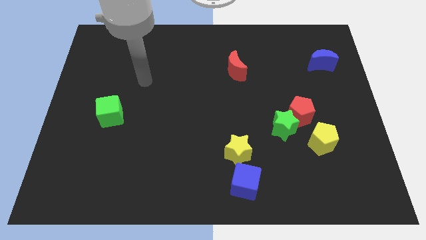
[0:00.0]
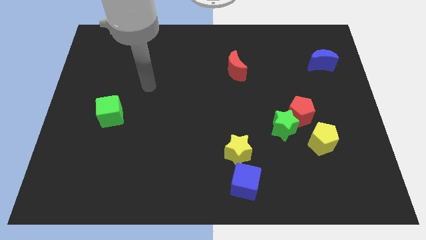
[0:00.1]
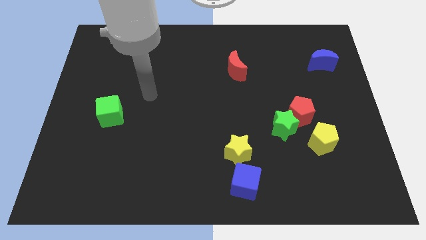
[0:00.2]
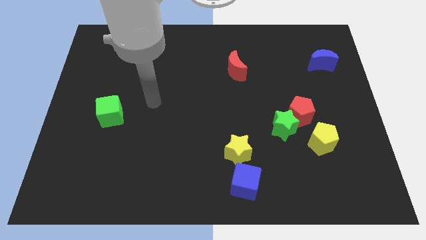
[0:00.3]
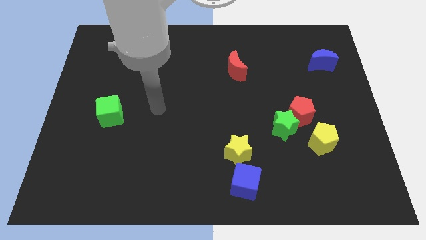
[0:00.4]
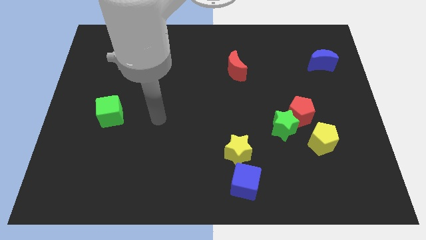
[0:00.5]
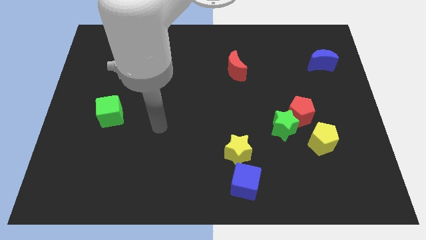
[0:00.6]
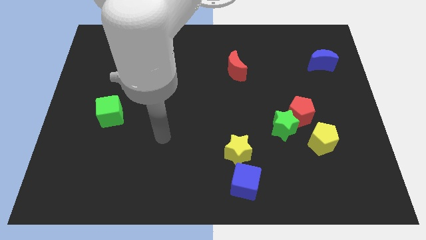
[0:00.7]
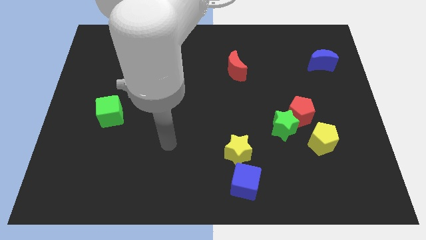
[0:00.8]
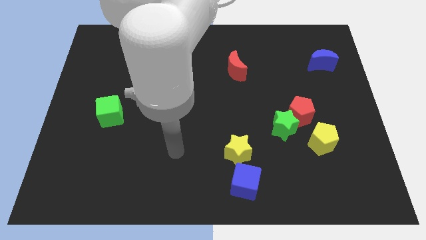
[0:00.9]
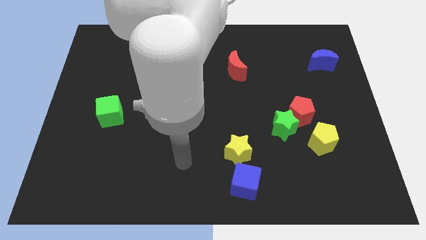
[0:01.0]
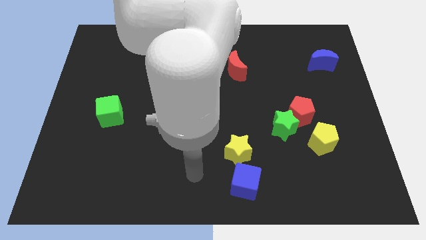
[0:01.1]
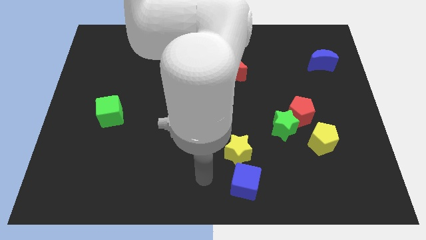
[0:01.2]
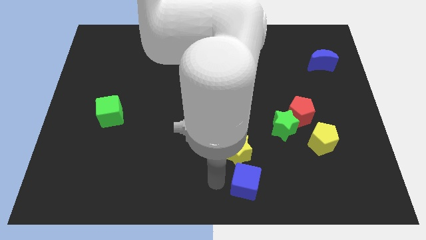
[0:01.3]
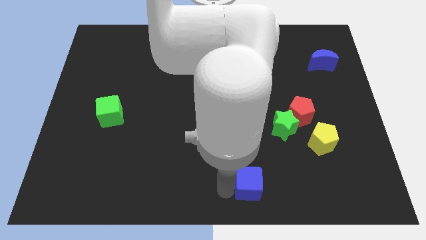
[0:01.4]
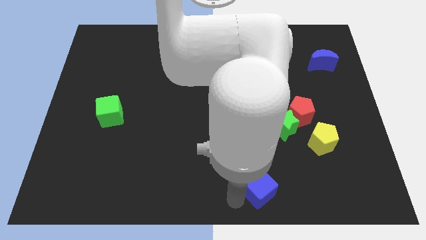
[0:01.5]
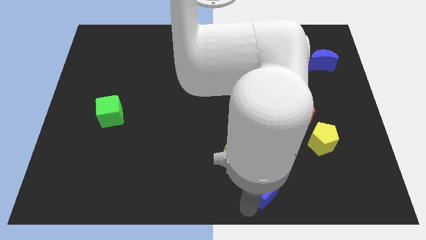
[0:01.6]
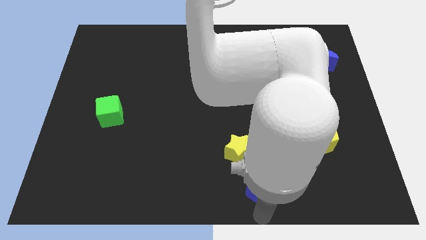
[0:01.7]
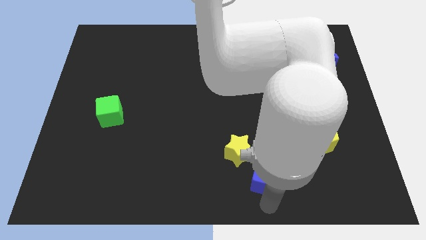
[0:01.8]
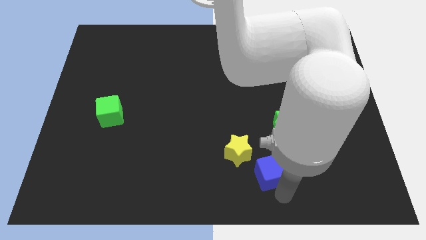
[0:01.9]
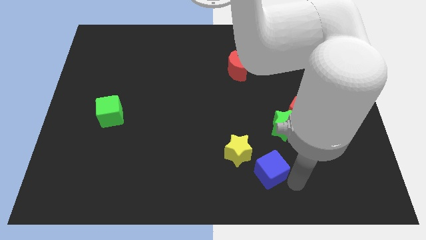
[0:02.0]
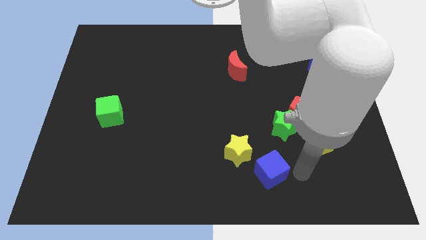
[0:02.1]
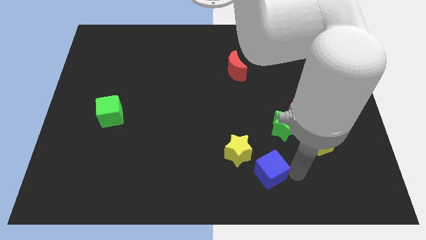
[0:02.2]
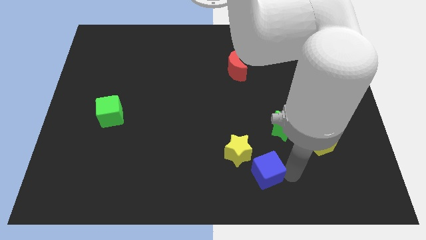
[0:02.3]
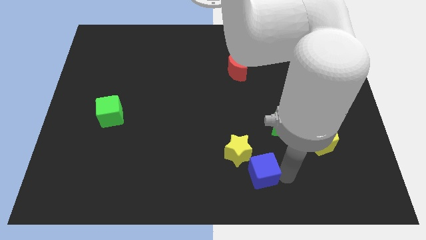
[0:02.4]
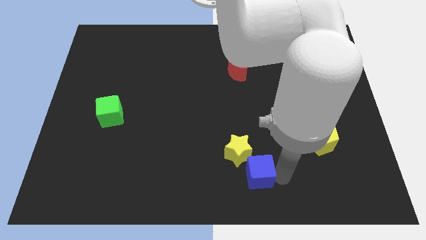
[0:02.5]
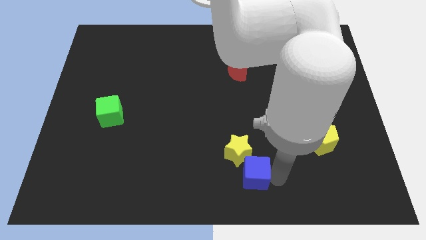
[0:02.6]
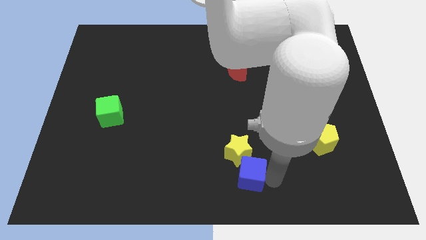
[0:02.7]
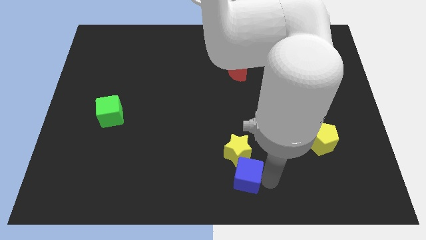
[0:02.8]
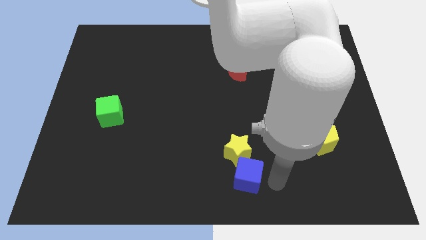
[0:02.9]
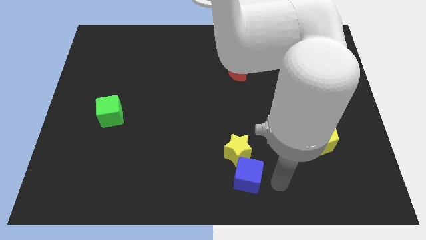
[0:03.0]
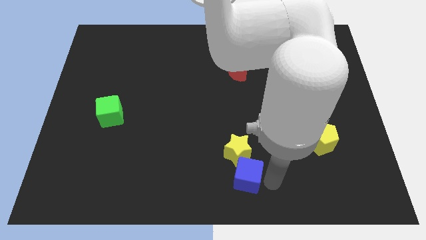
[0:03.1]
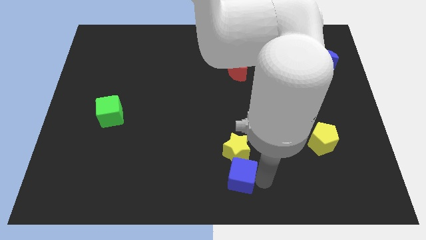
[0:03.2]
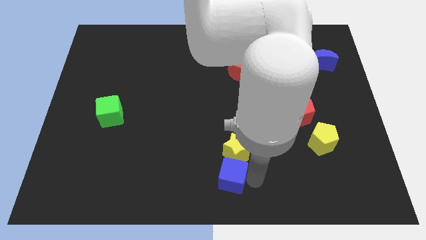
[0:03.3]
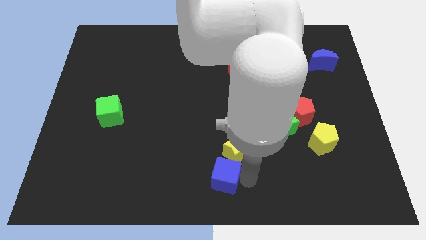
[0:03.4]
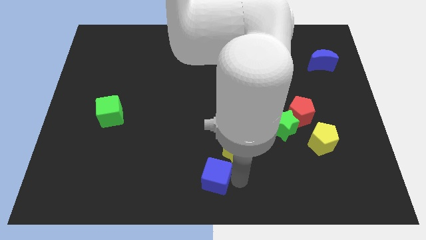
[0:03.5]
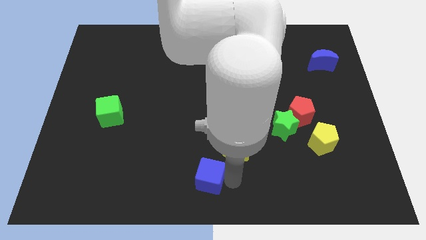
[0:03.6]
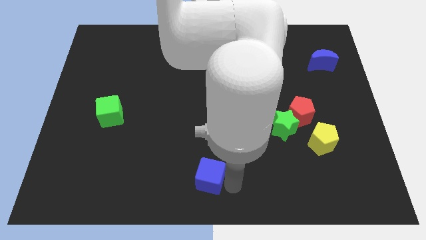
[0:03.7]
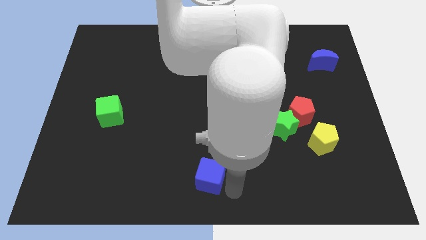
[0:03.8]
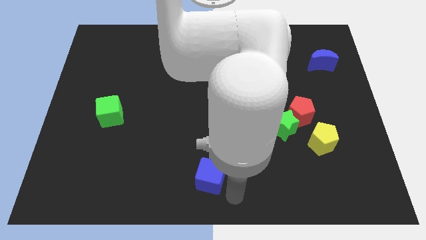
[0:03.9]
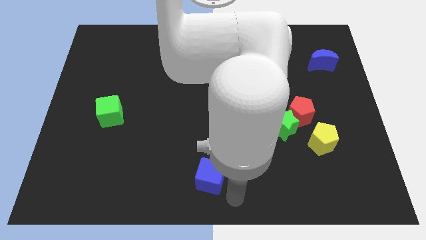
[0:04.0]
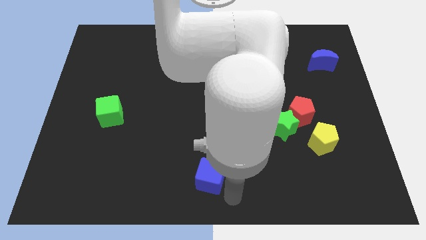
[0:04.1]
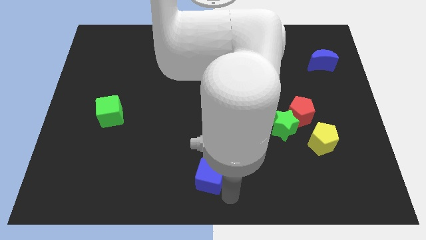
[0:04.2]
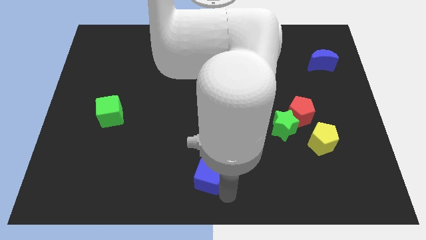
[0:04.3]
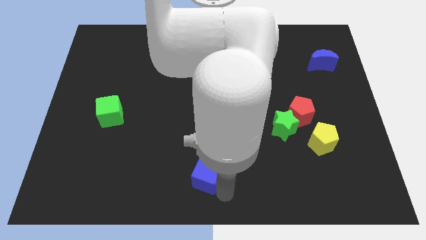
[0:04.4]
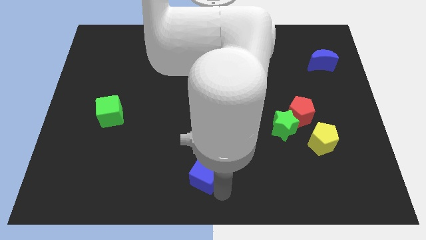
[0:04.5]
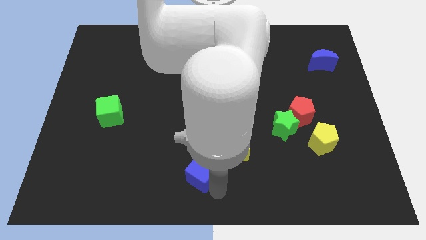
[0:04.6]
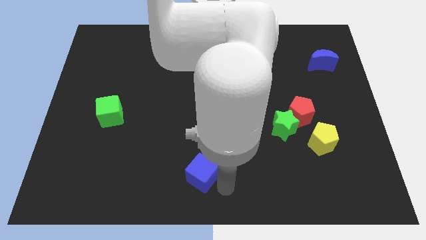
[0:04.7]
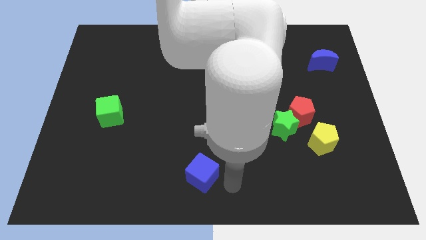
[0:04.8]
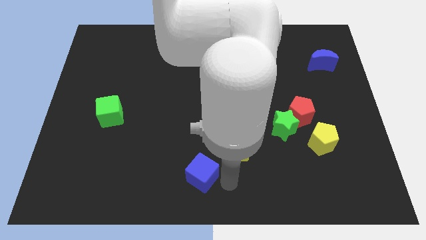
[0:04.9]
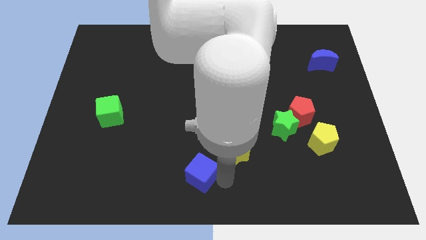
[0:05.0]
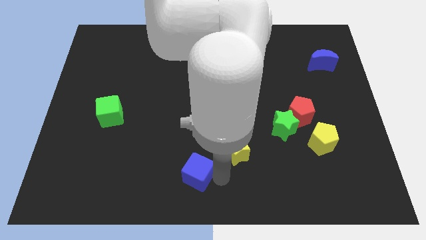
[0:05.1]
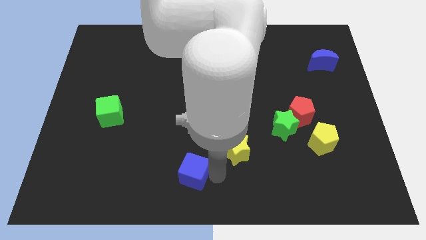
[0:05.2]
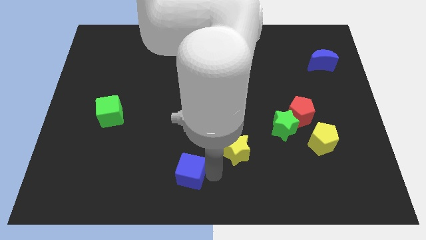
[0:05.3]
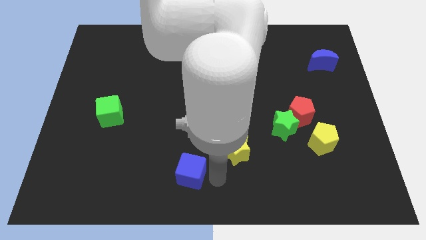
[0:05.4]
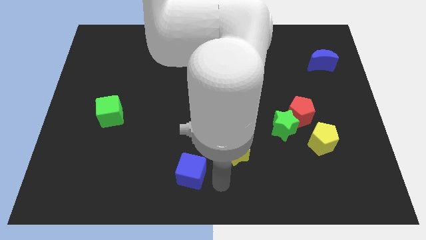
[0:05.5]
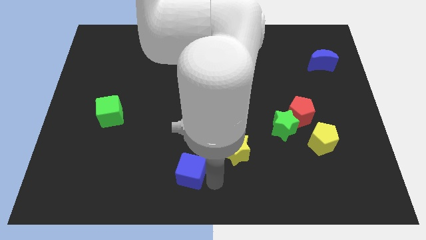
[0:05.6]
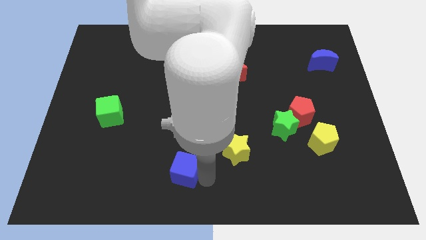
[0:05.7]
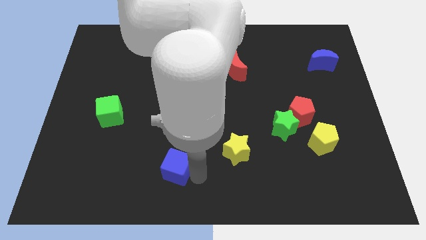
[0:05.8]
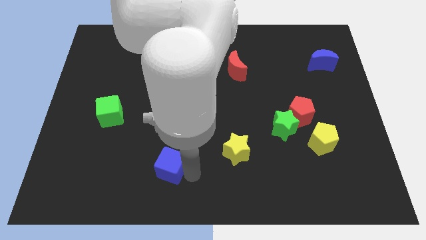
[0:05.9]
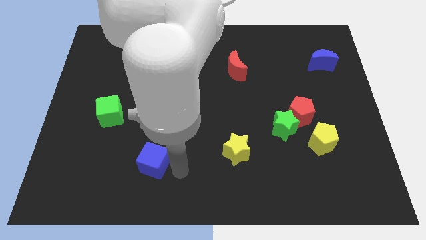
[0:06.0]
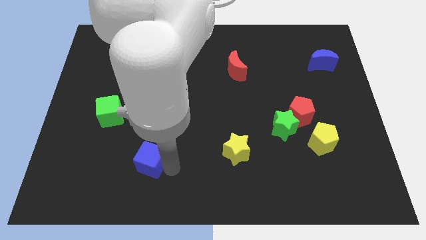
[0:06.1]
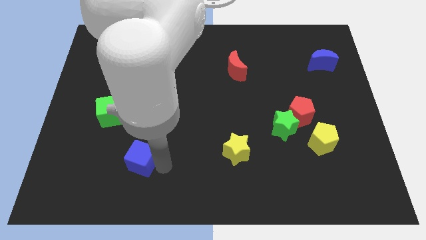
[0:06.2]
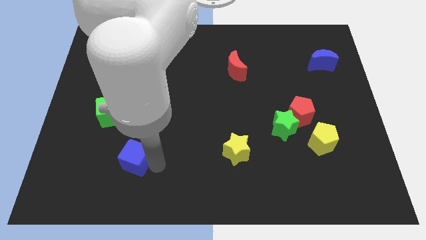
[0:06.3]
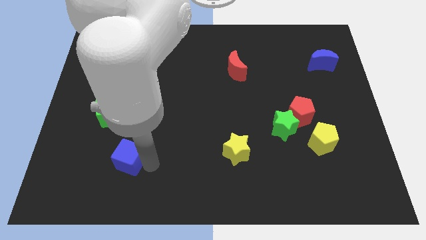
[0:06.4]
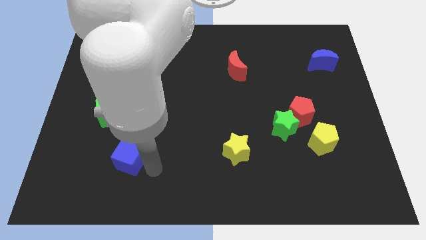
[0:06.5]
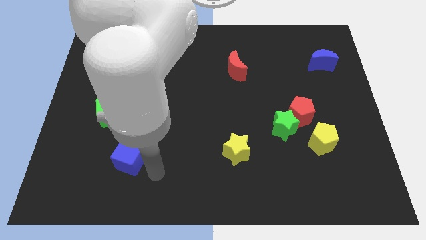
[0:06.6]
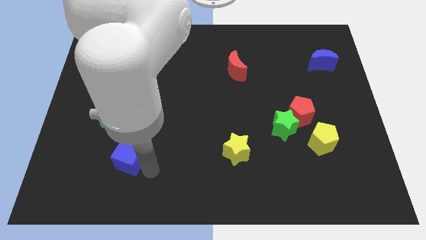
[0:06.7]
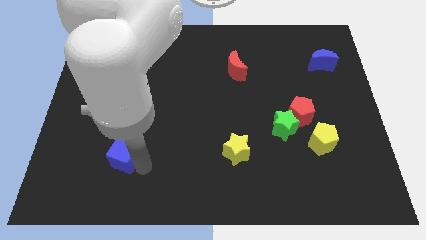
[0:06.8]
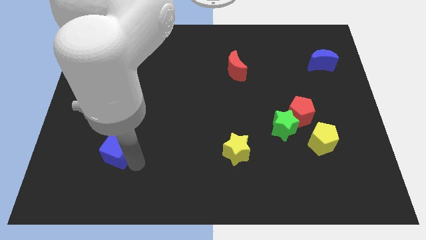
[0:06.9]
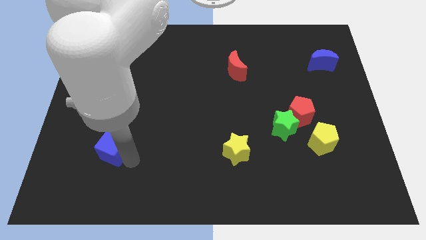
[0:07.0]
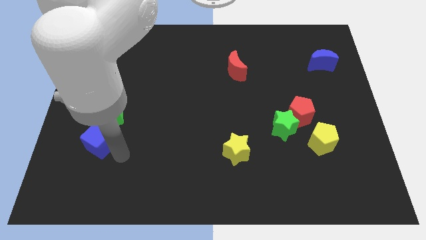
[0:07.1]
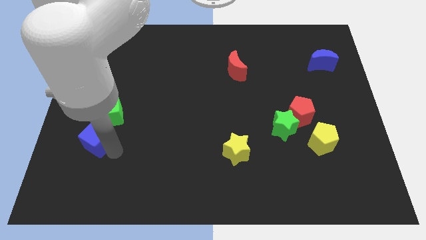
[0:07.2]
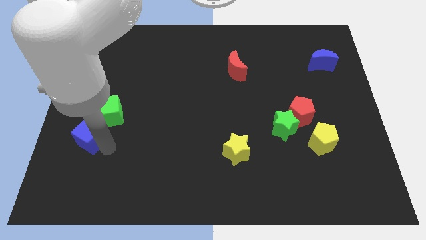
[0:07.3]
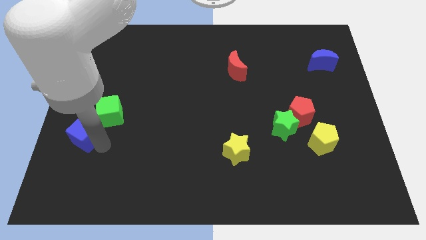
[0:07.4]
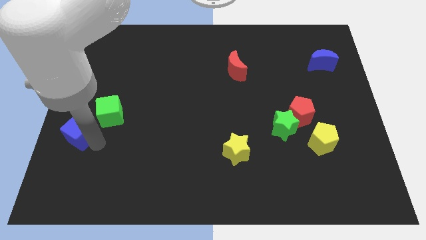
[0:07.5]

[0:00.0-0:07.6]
push the blue cube to the left side of the board
